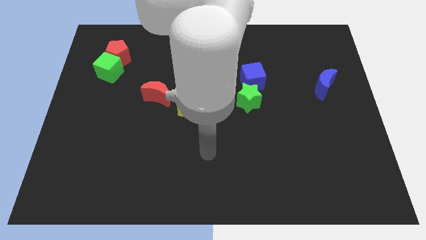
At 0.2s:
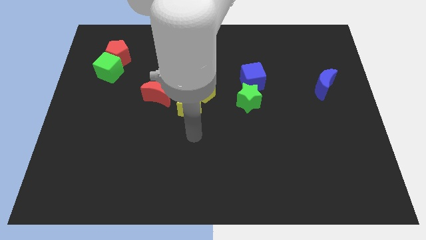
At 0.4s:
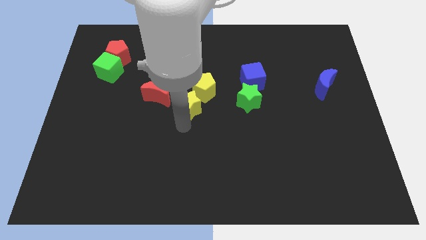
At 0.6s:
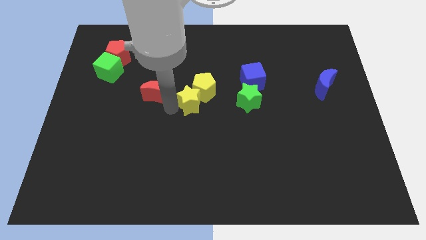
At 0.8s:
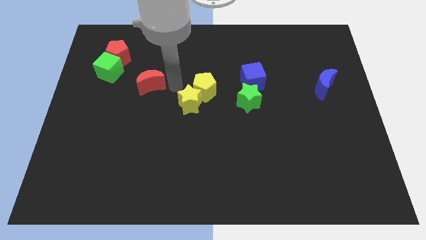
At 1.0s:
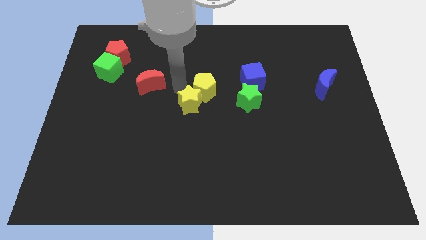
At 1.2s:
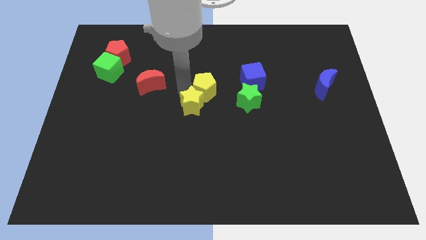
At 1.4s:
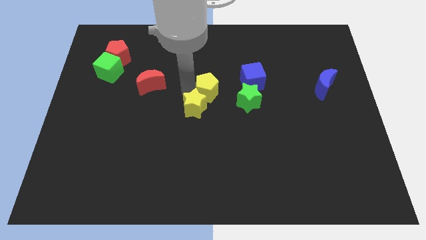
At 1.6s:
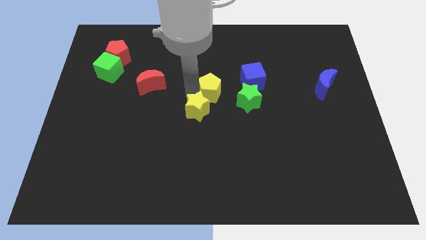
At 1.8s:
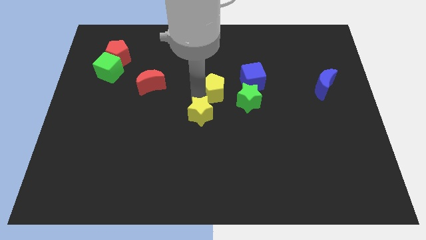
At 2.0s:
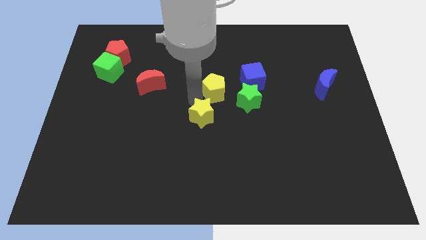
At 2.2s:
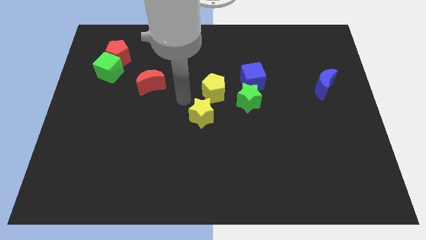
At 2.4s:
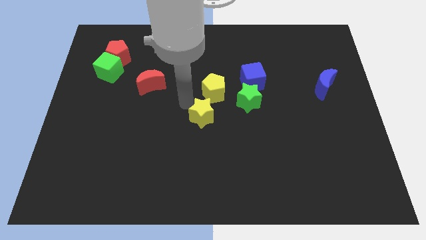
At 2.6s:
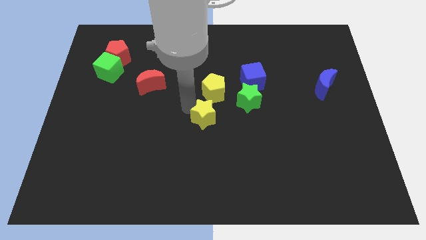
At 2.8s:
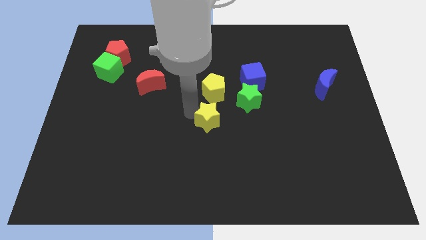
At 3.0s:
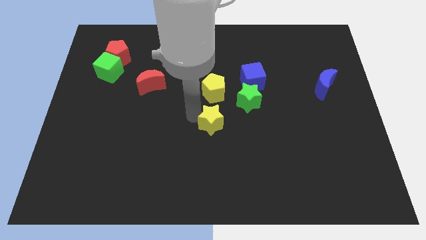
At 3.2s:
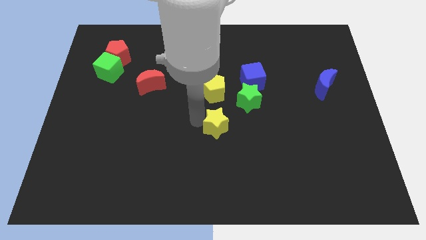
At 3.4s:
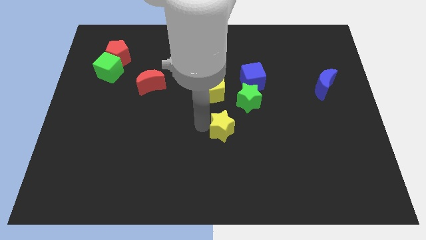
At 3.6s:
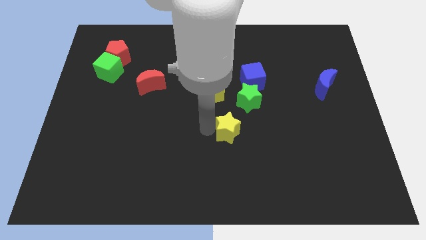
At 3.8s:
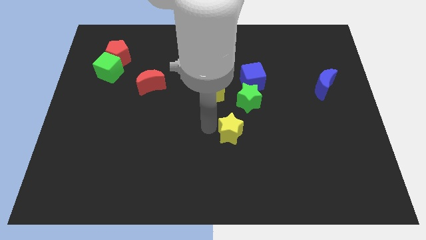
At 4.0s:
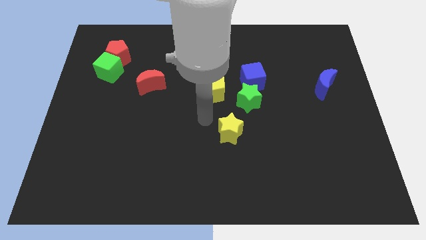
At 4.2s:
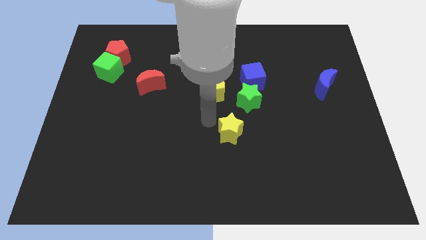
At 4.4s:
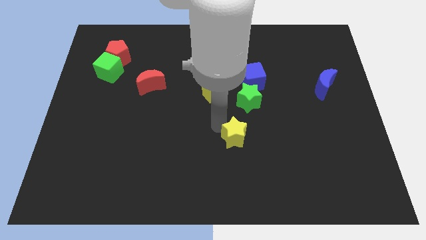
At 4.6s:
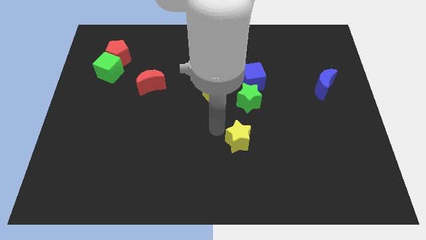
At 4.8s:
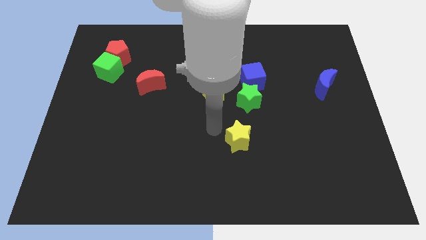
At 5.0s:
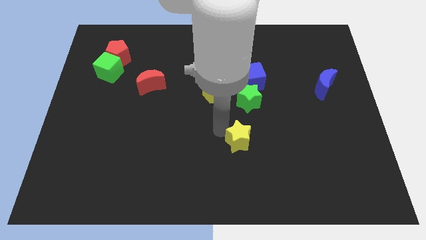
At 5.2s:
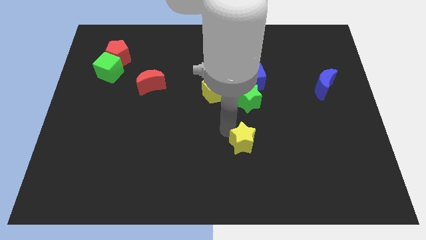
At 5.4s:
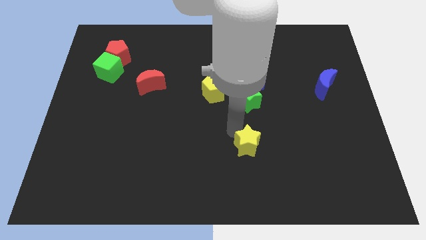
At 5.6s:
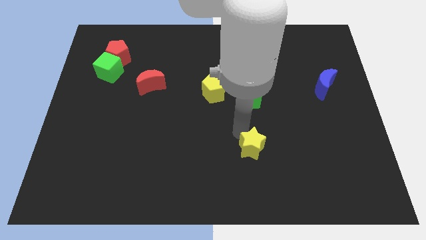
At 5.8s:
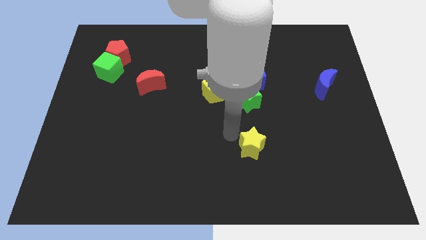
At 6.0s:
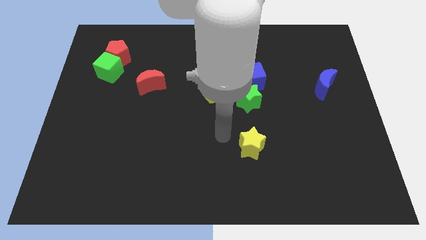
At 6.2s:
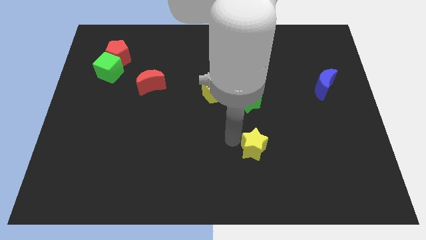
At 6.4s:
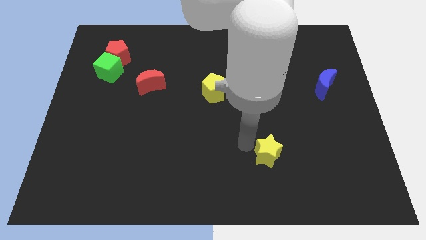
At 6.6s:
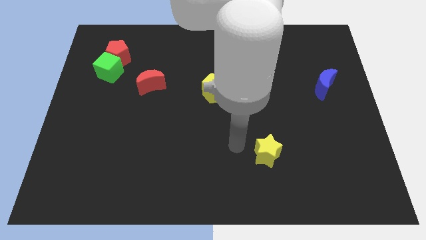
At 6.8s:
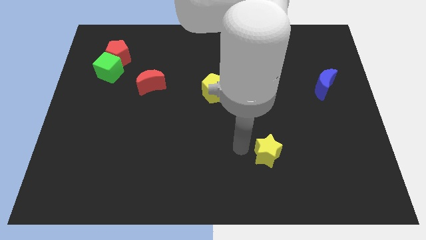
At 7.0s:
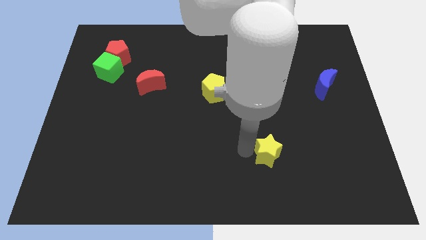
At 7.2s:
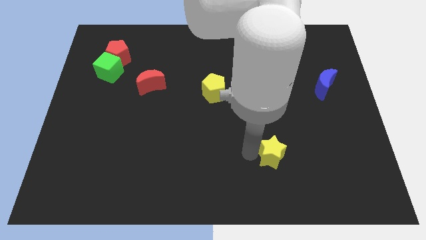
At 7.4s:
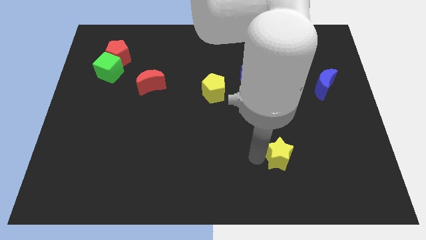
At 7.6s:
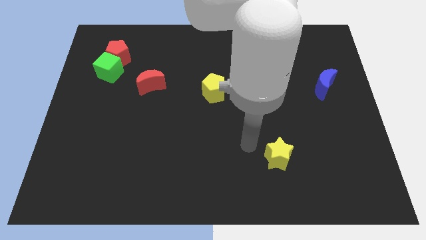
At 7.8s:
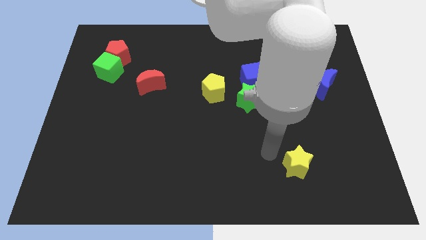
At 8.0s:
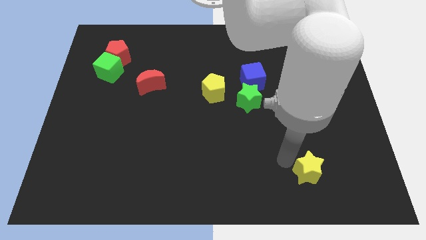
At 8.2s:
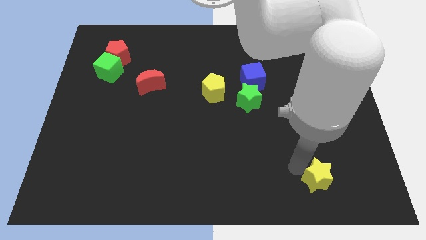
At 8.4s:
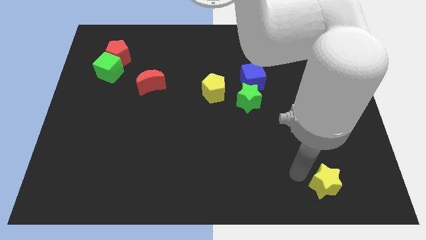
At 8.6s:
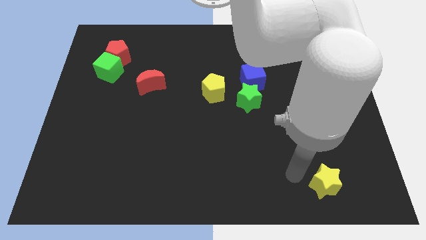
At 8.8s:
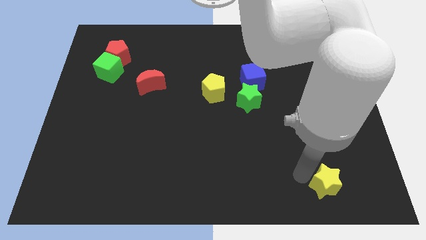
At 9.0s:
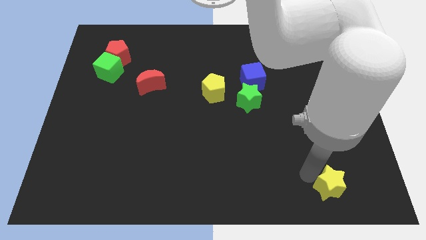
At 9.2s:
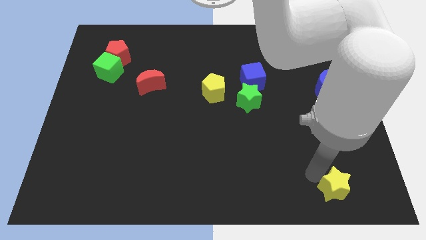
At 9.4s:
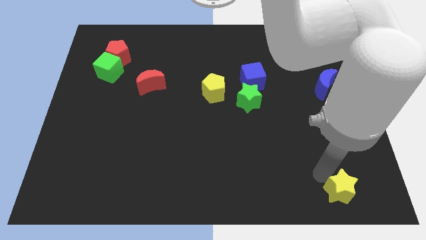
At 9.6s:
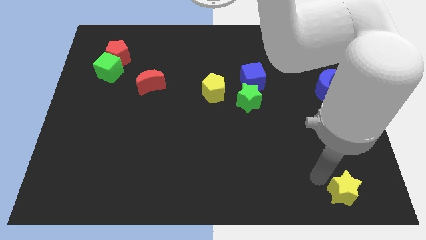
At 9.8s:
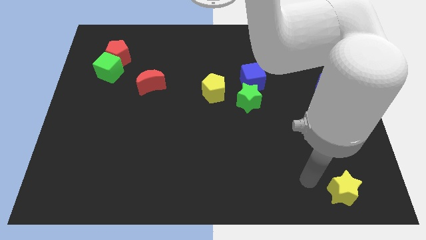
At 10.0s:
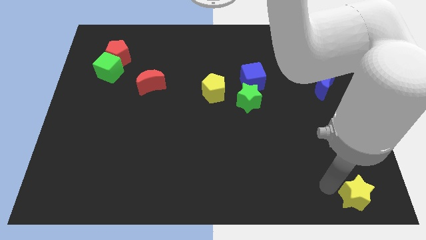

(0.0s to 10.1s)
put the yellow star to the bottom right

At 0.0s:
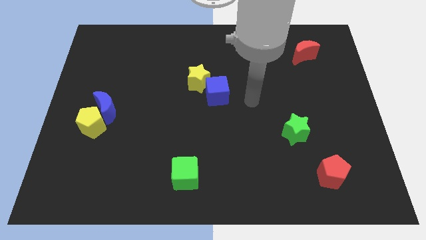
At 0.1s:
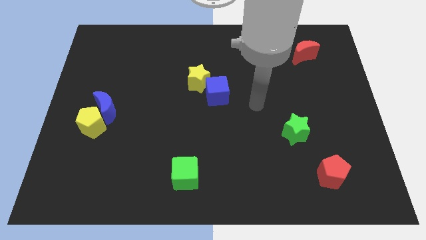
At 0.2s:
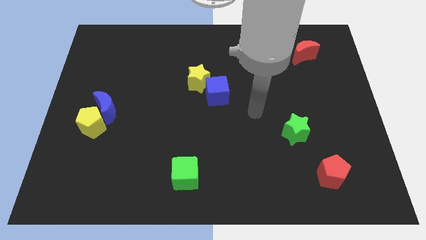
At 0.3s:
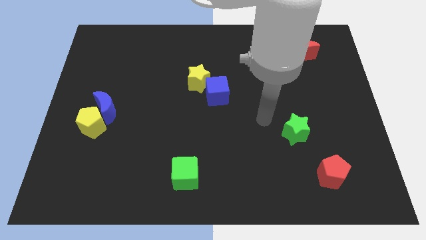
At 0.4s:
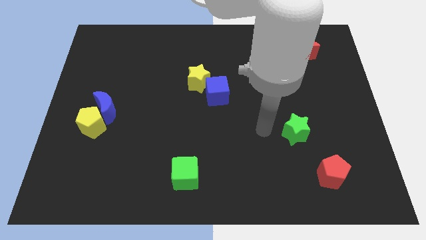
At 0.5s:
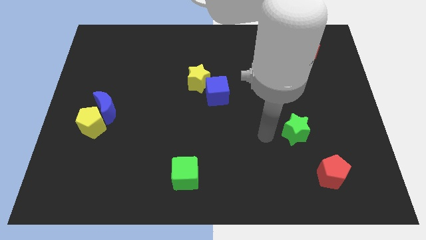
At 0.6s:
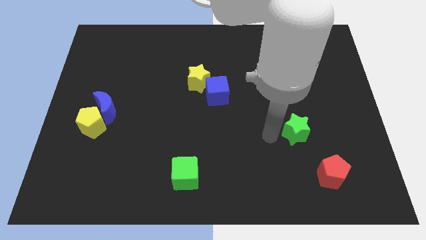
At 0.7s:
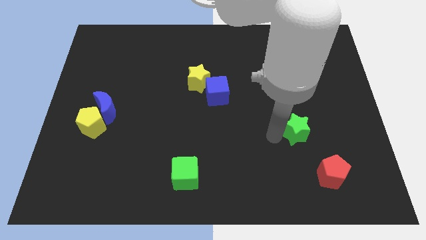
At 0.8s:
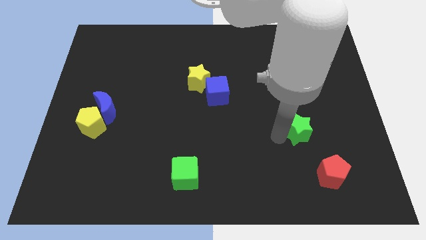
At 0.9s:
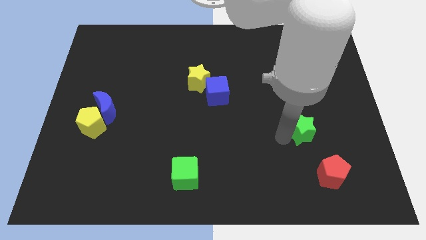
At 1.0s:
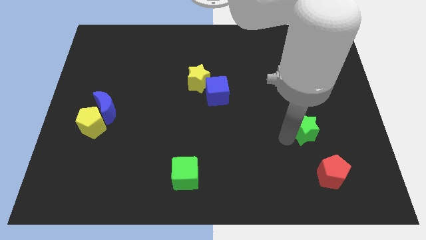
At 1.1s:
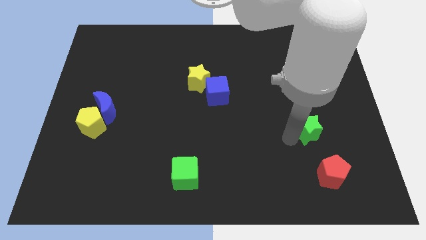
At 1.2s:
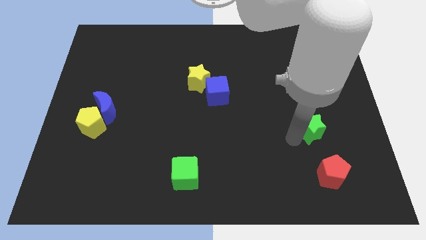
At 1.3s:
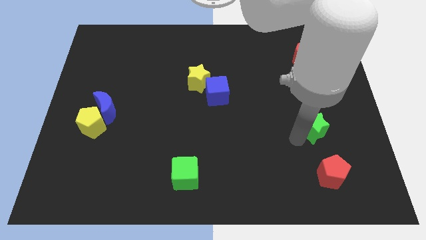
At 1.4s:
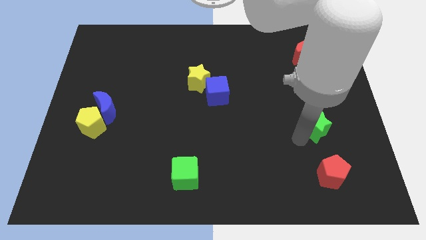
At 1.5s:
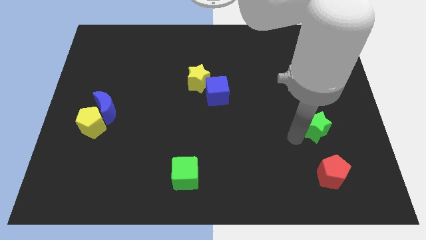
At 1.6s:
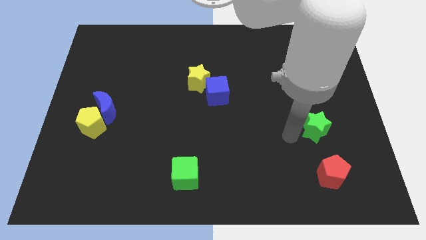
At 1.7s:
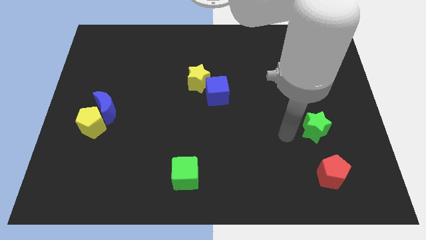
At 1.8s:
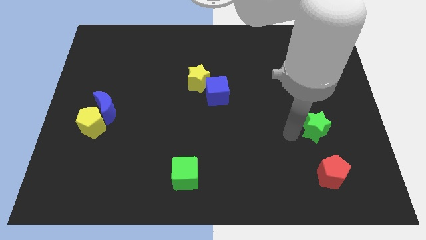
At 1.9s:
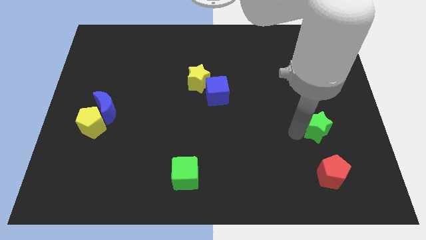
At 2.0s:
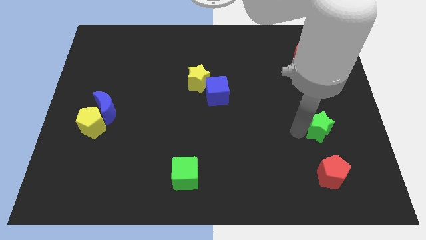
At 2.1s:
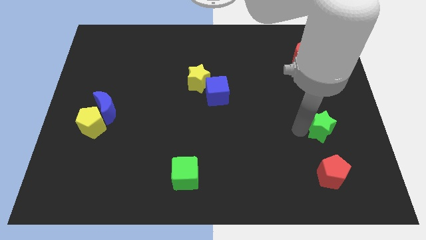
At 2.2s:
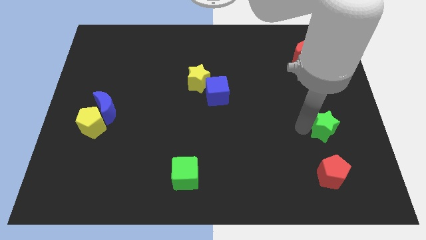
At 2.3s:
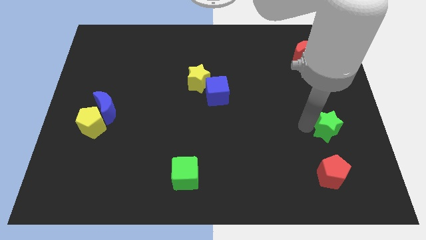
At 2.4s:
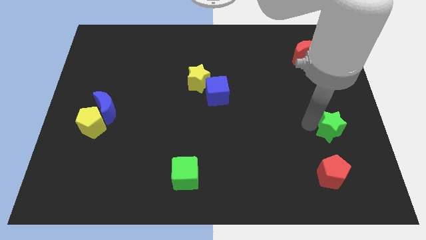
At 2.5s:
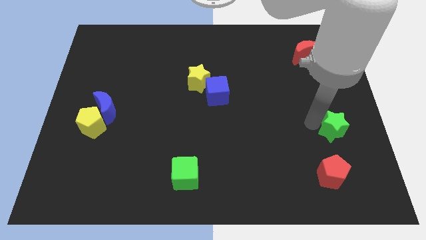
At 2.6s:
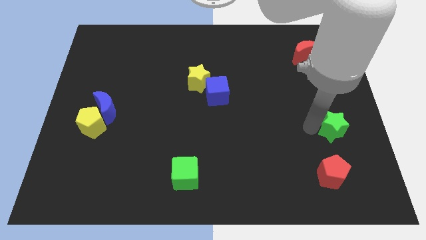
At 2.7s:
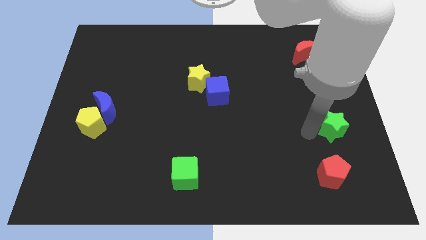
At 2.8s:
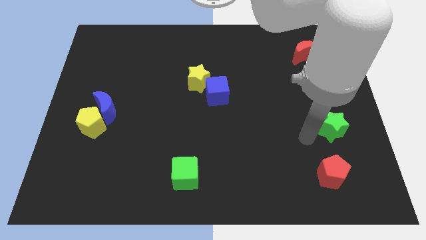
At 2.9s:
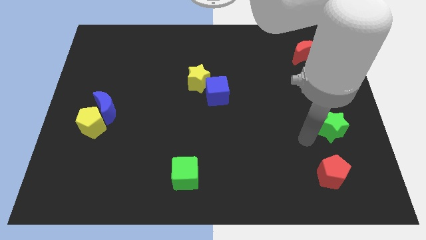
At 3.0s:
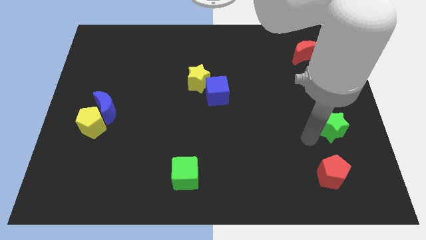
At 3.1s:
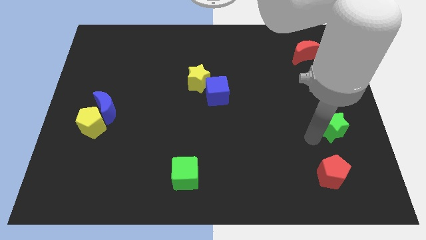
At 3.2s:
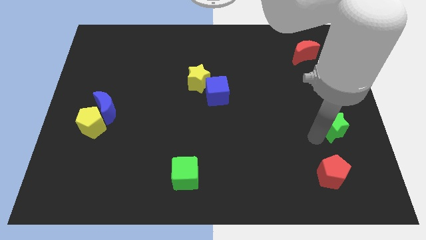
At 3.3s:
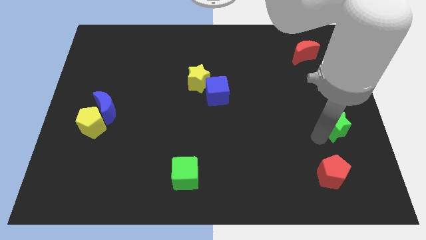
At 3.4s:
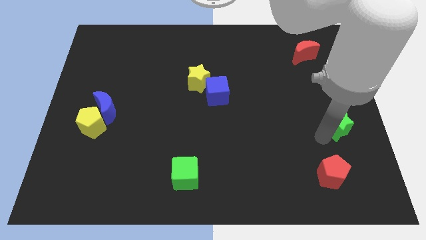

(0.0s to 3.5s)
move the green star to the right side
